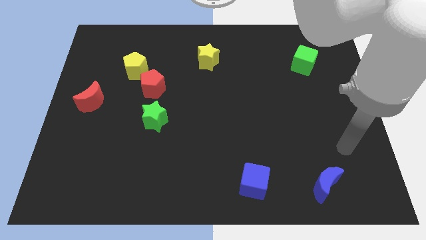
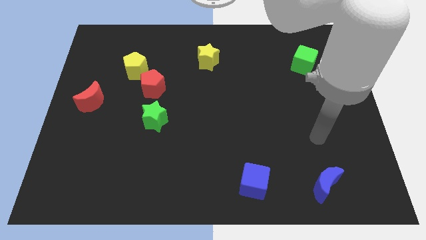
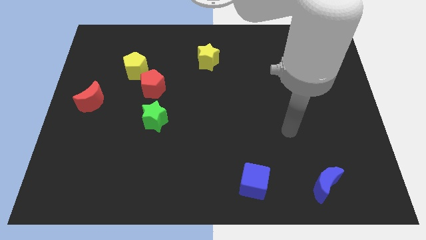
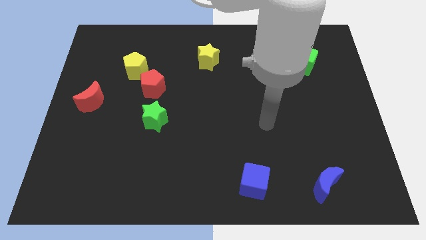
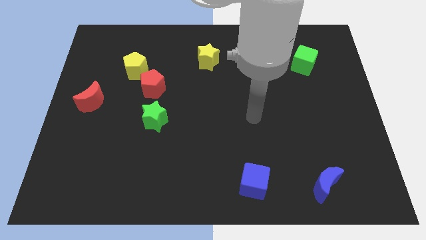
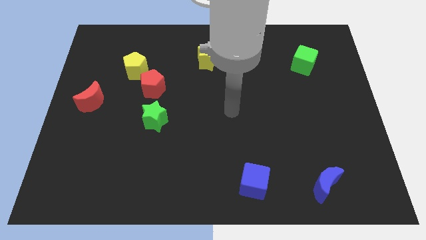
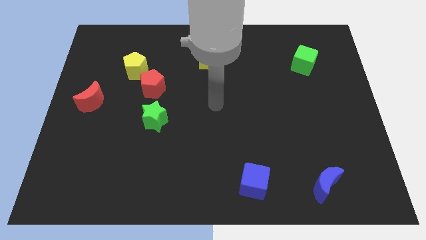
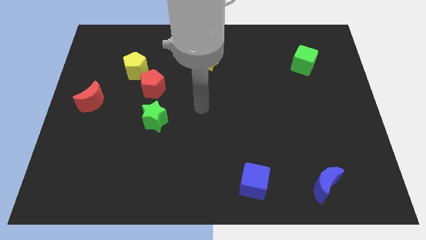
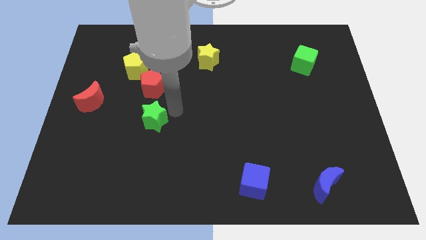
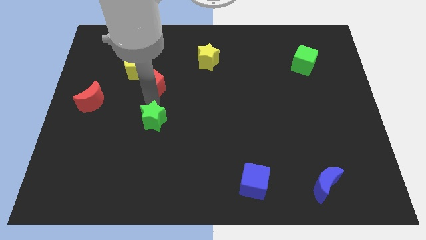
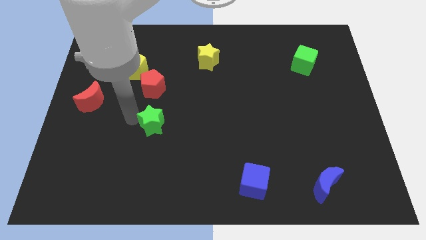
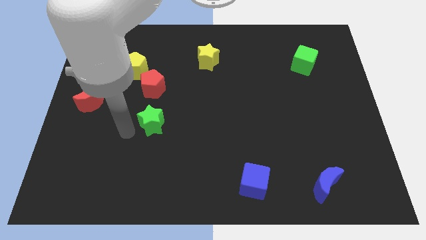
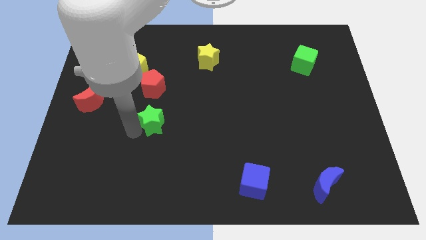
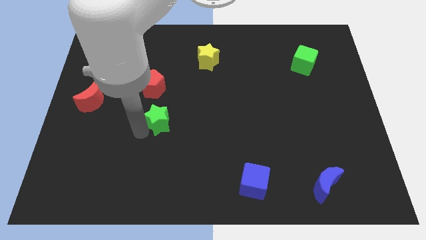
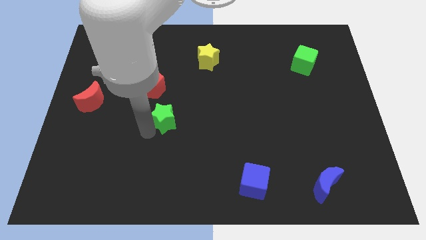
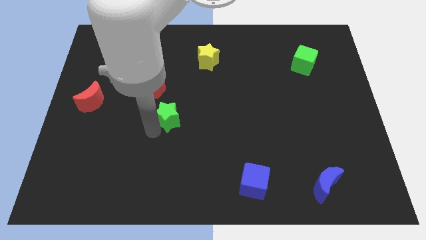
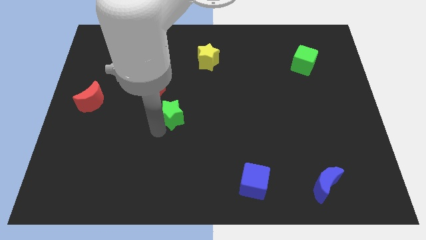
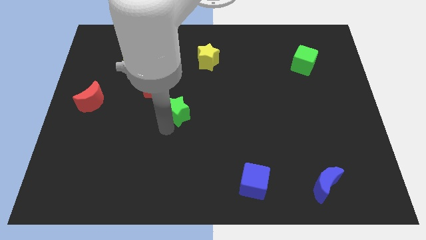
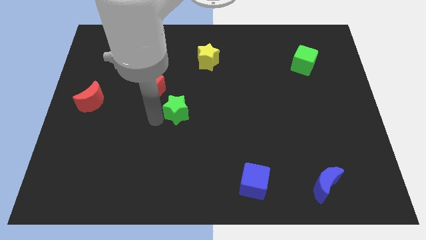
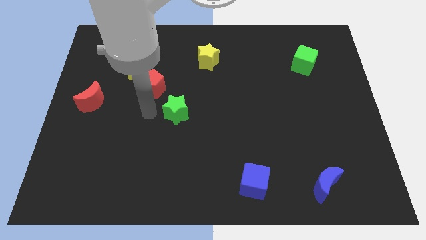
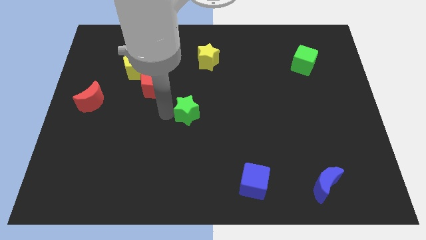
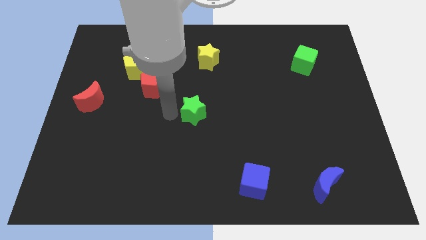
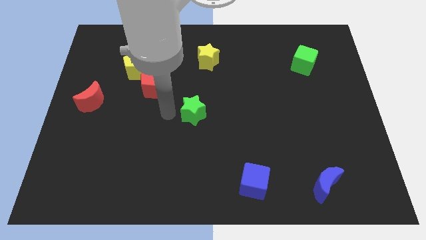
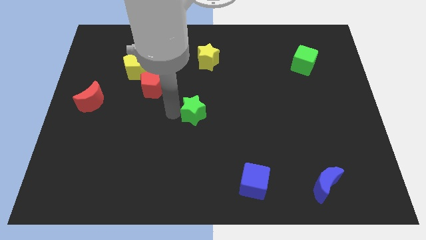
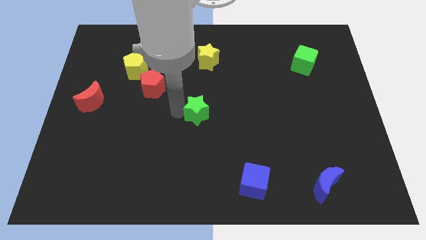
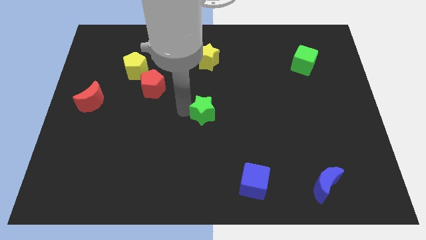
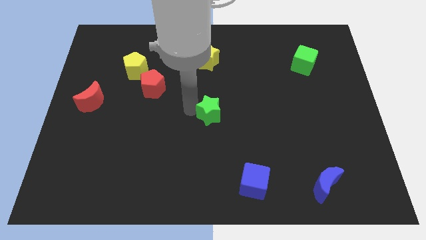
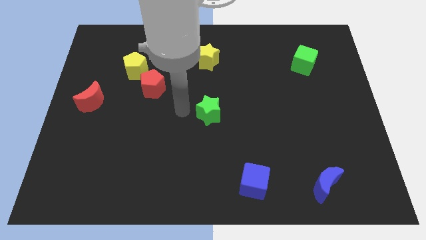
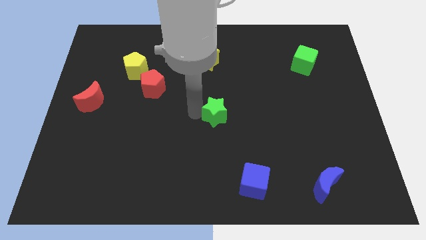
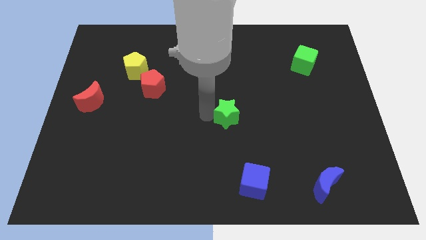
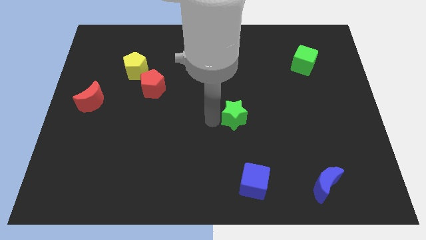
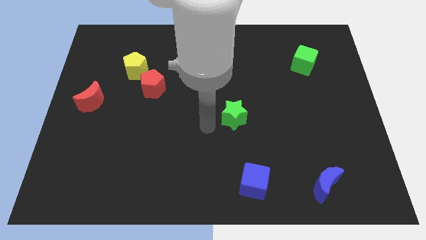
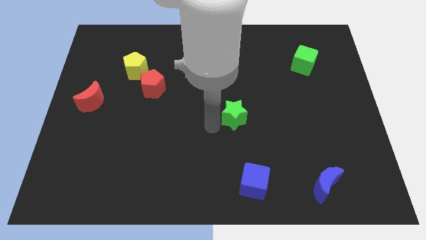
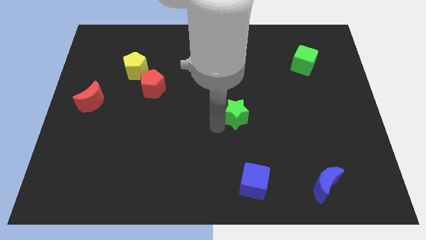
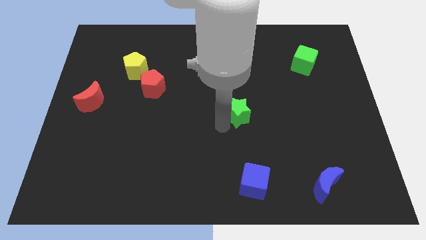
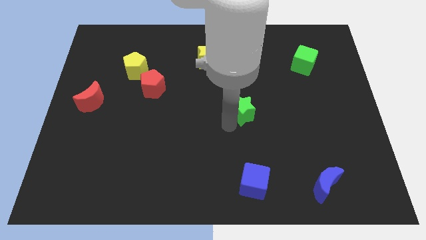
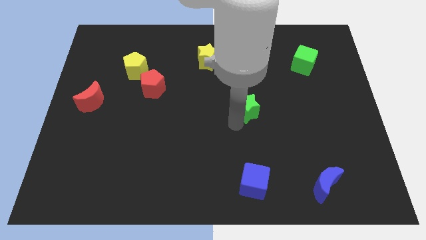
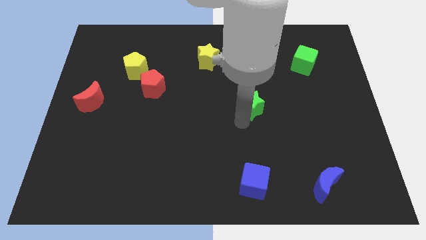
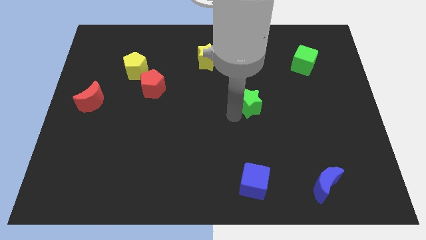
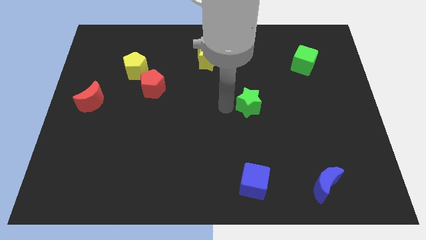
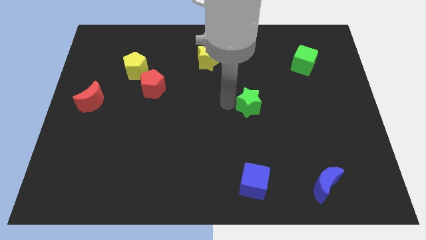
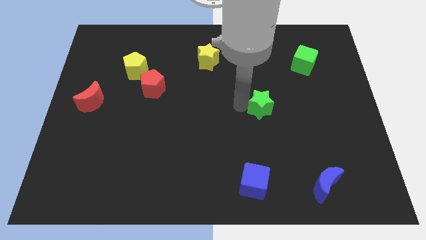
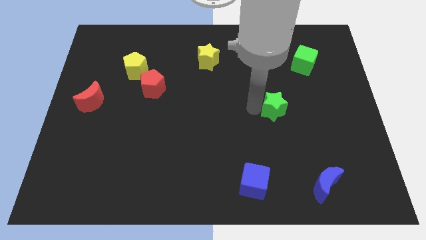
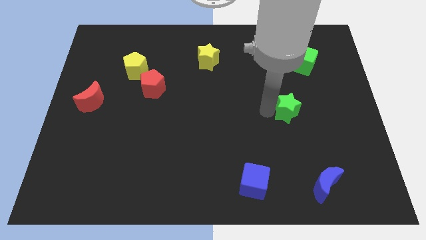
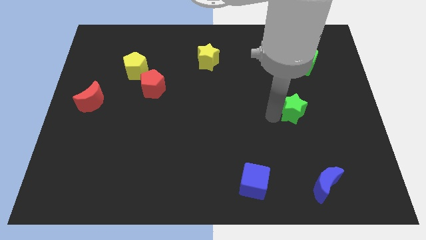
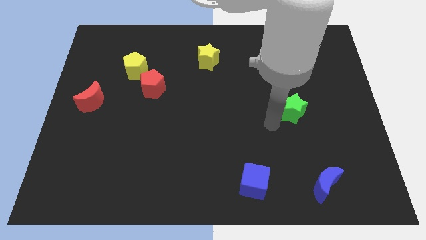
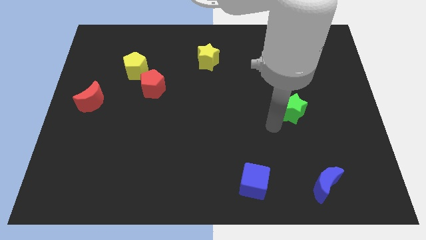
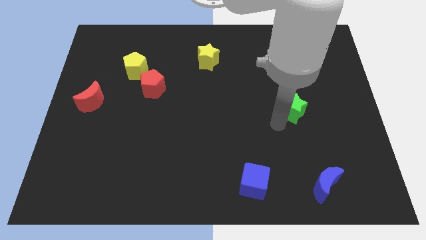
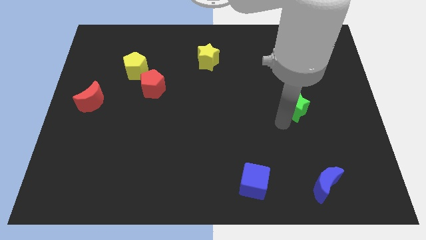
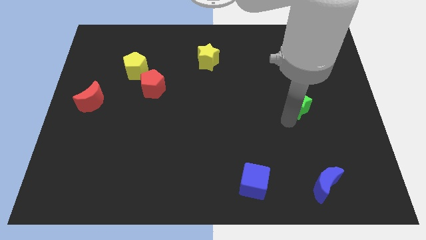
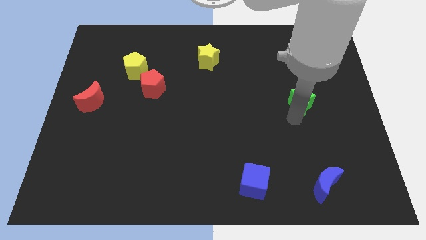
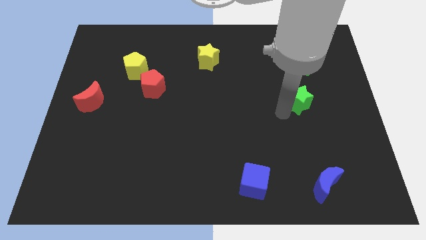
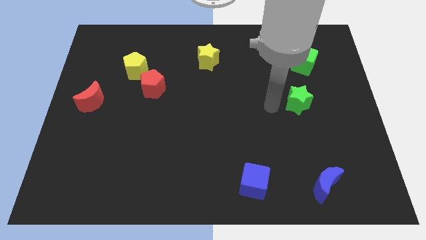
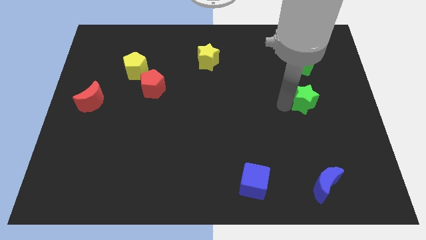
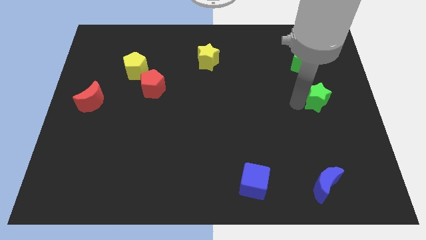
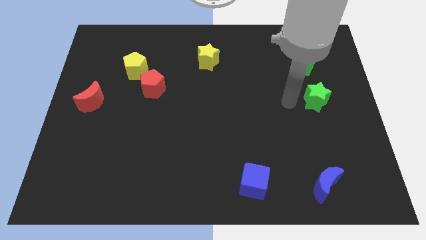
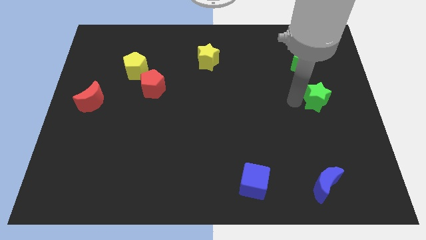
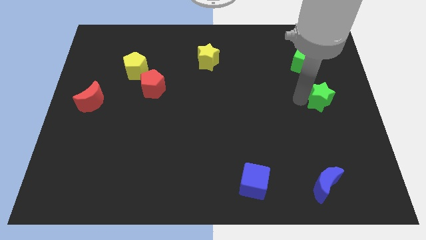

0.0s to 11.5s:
push the green star to the right side

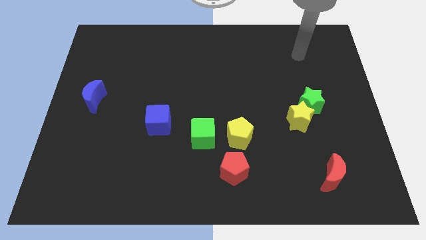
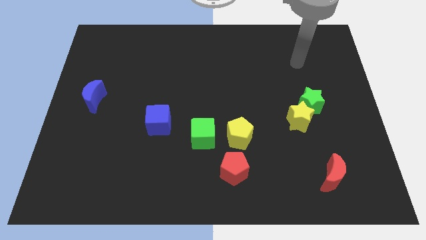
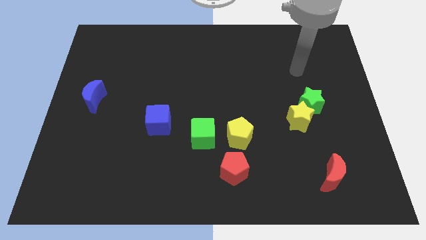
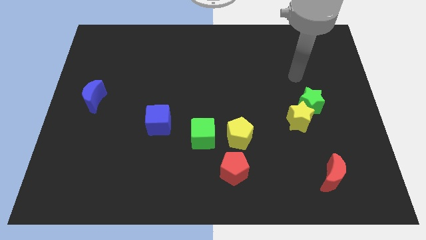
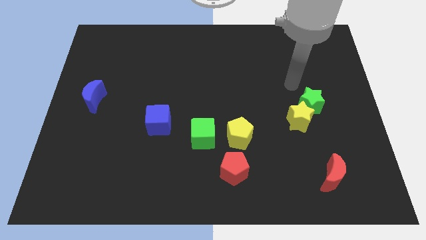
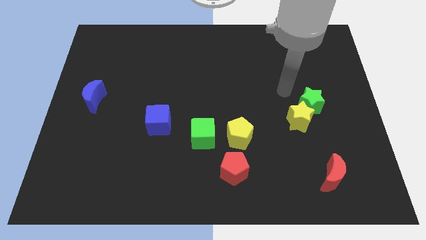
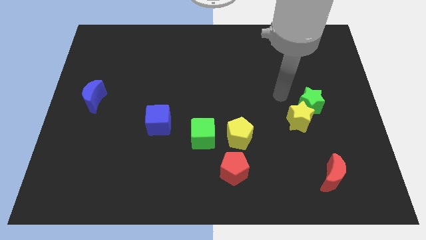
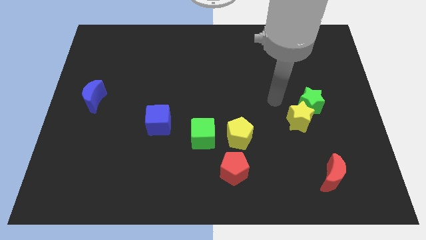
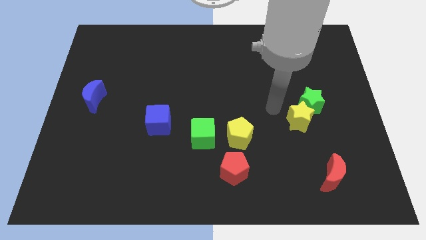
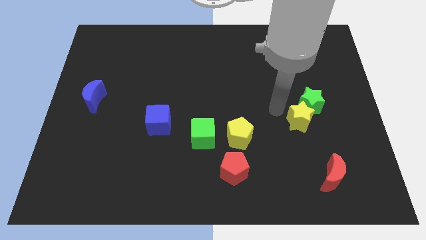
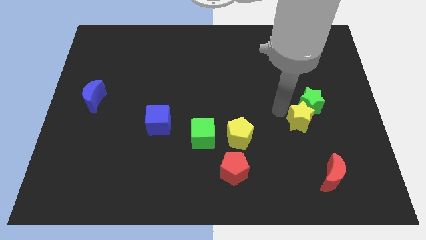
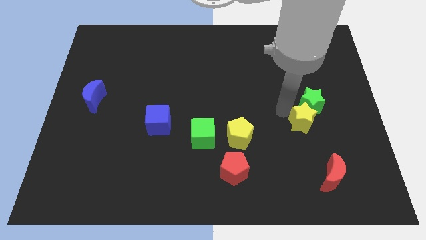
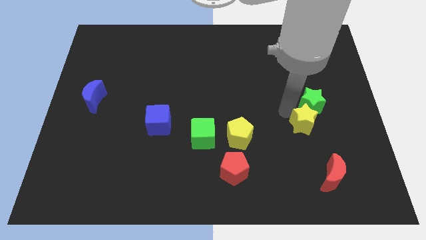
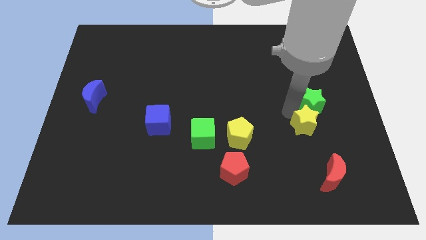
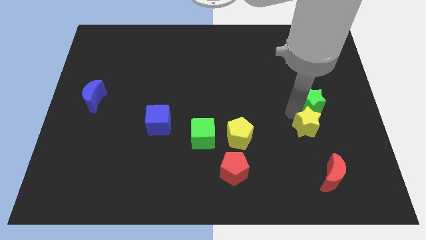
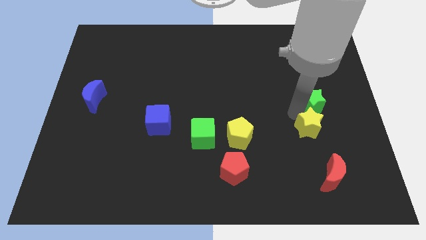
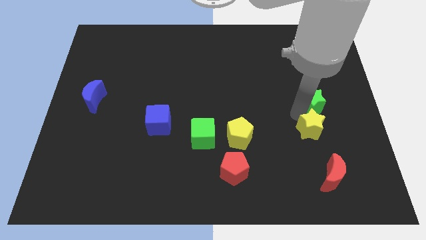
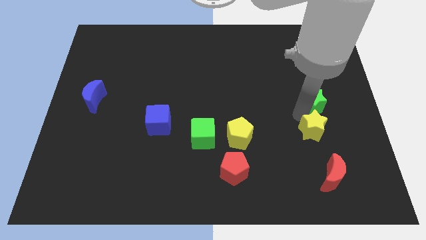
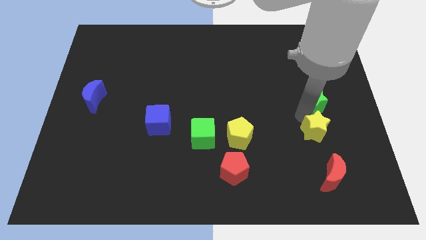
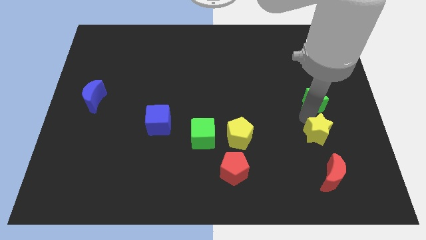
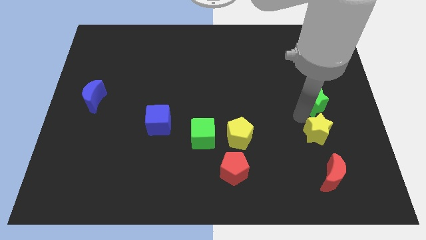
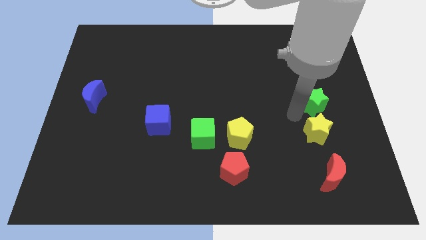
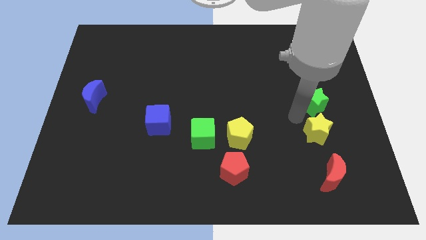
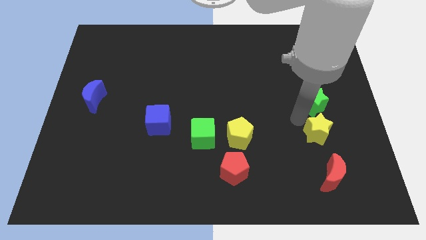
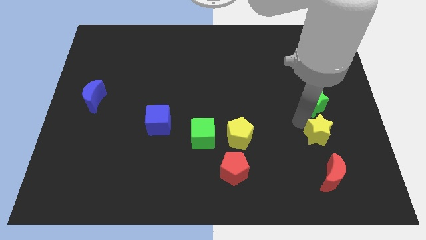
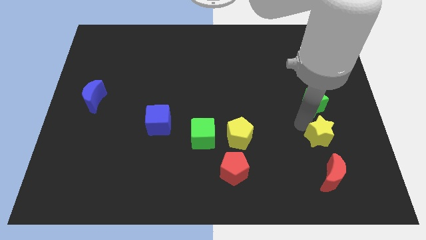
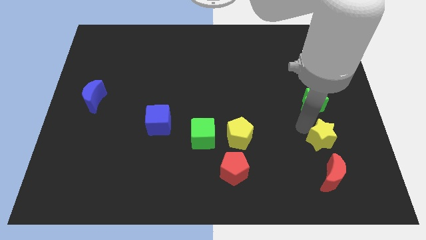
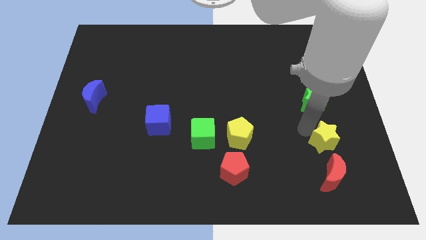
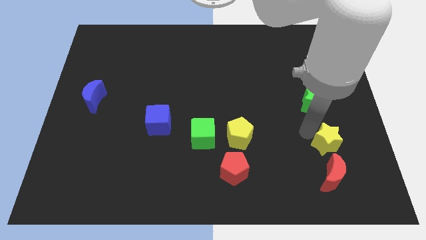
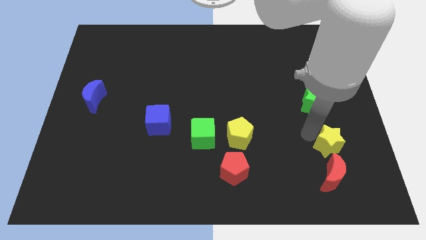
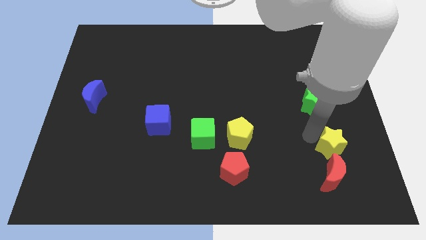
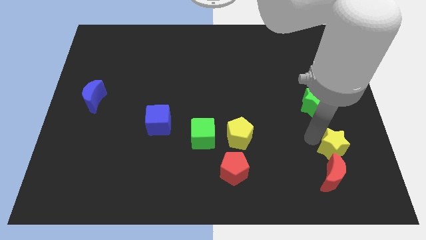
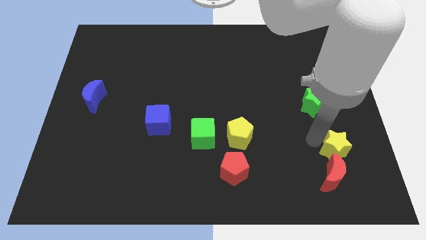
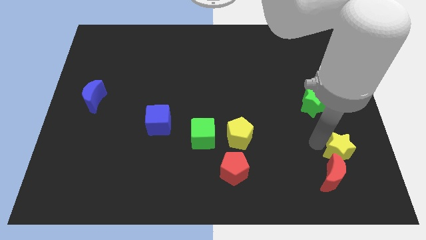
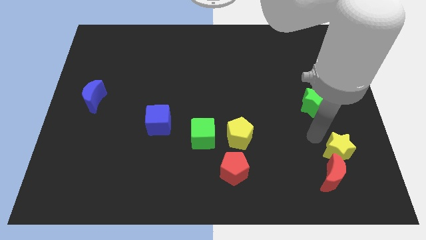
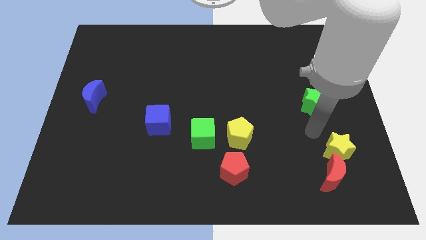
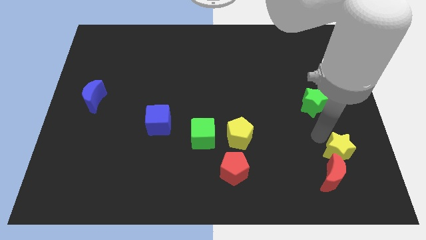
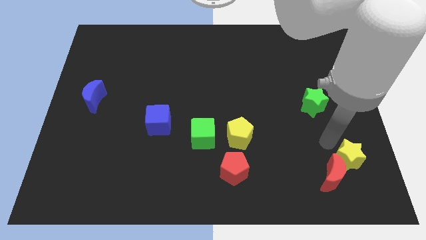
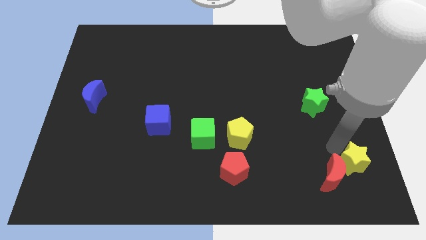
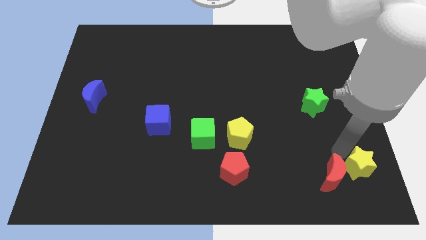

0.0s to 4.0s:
slide the yellow star to the bottom right of the board
